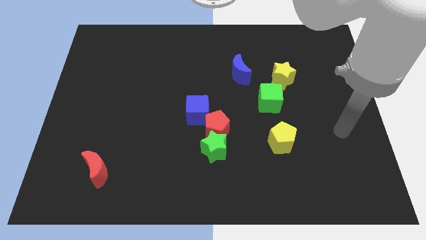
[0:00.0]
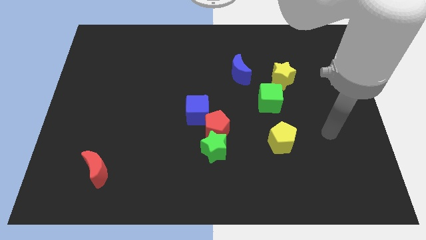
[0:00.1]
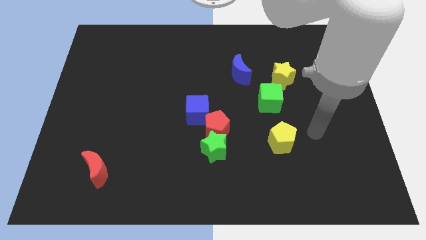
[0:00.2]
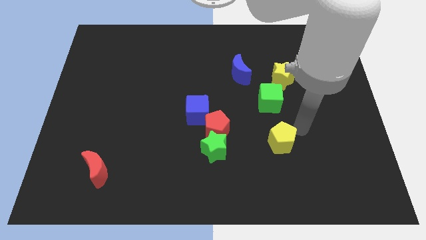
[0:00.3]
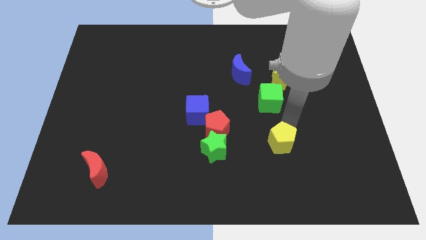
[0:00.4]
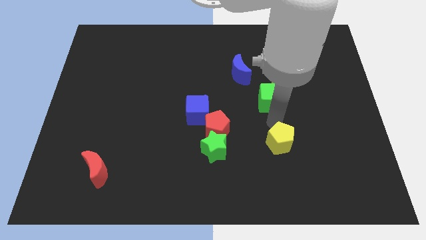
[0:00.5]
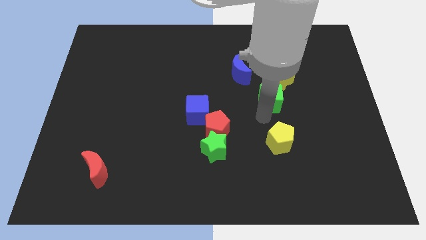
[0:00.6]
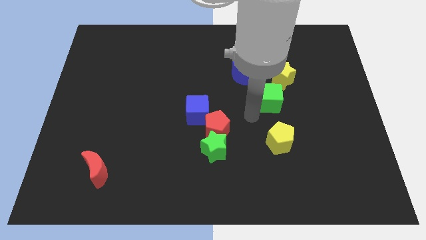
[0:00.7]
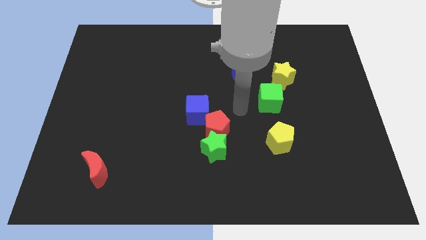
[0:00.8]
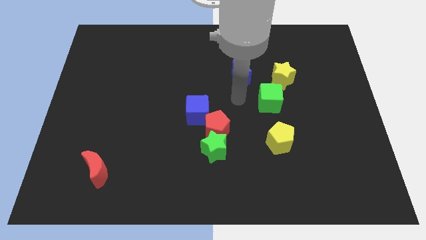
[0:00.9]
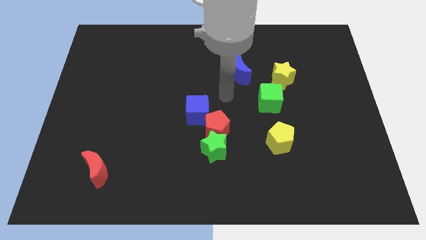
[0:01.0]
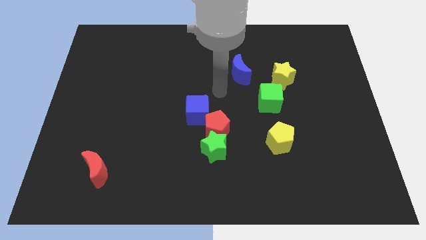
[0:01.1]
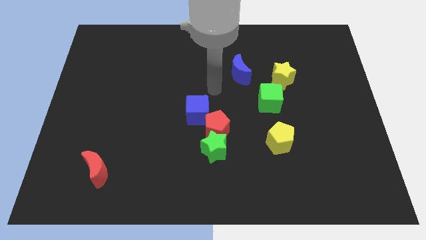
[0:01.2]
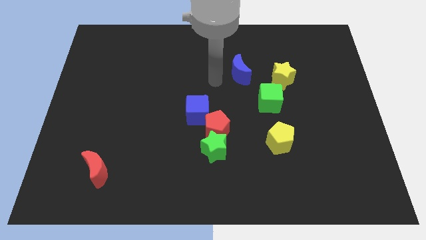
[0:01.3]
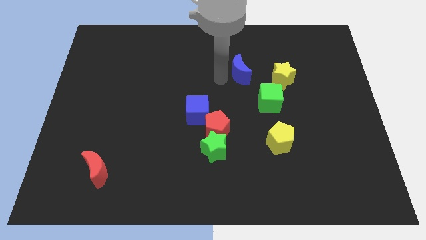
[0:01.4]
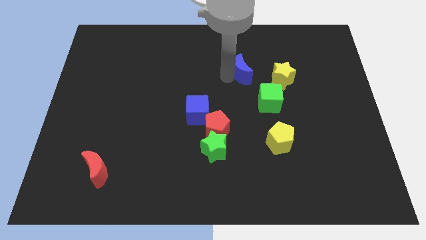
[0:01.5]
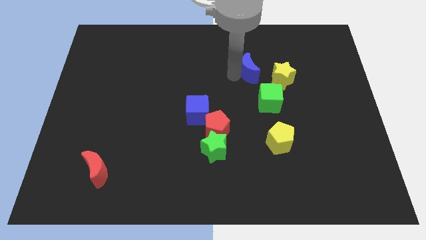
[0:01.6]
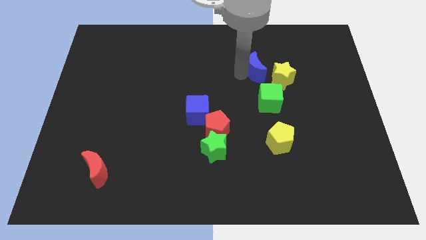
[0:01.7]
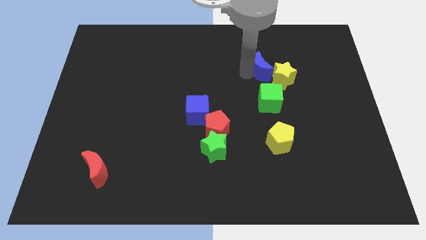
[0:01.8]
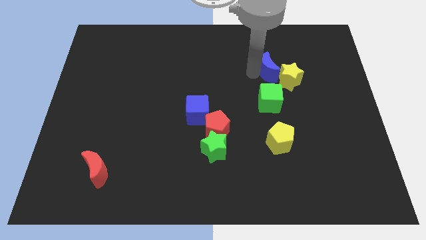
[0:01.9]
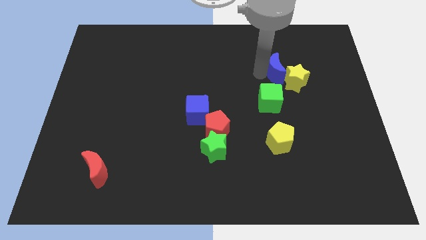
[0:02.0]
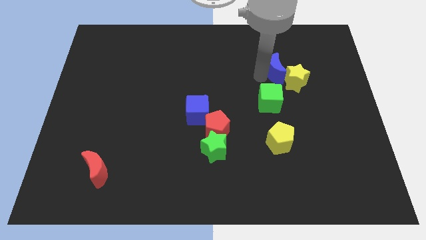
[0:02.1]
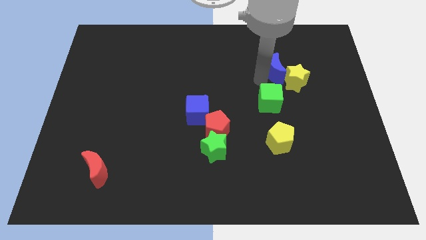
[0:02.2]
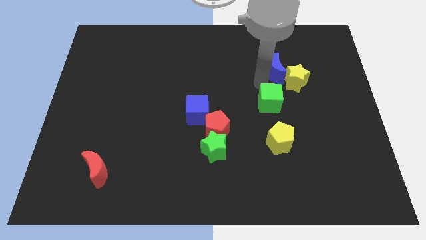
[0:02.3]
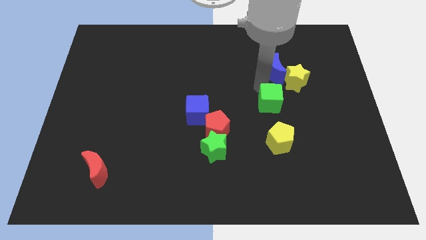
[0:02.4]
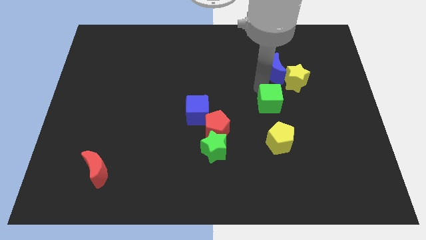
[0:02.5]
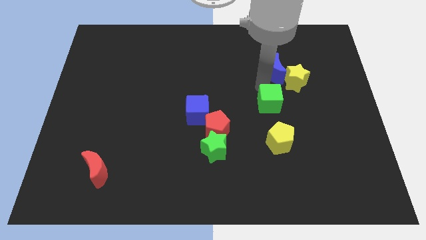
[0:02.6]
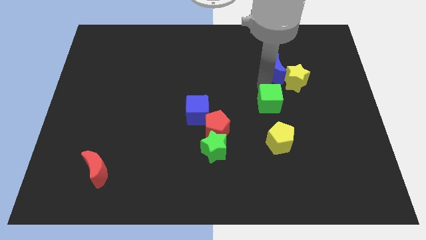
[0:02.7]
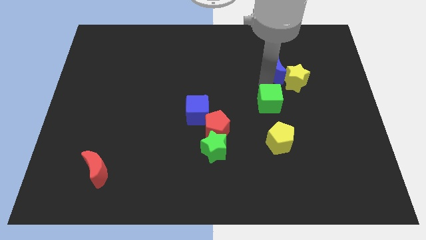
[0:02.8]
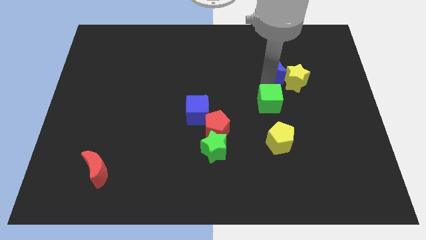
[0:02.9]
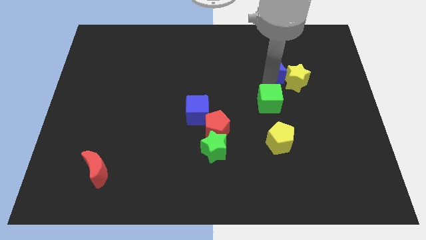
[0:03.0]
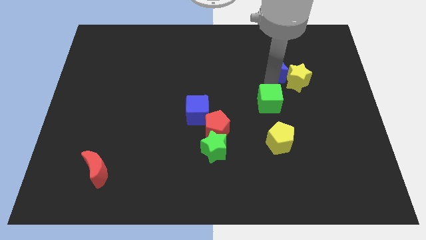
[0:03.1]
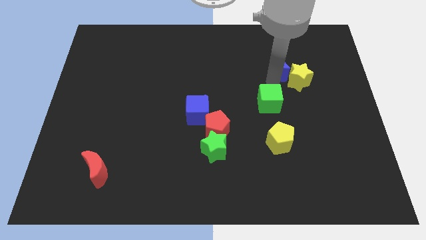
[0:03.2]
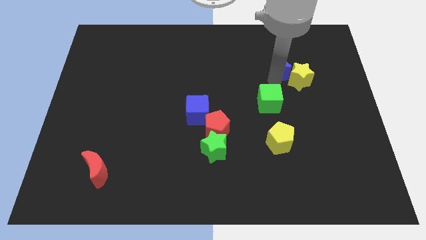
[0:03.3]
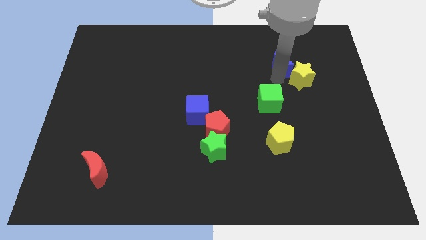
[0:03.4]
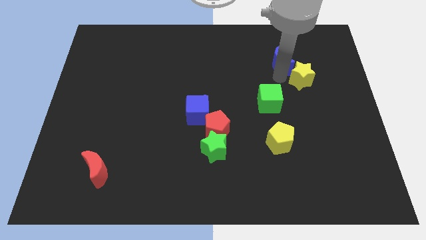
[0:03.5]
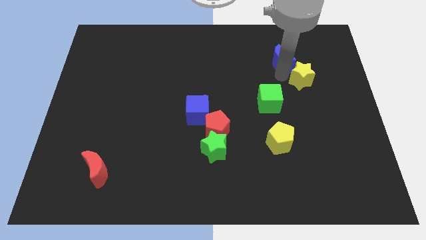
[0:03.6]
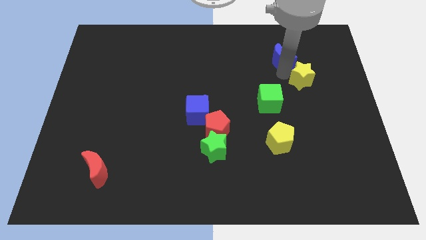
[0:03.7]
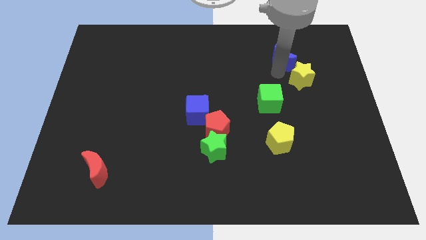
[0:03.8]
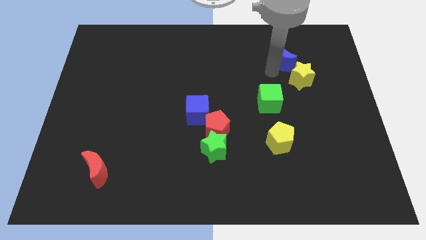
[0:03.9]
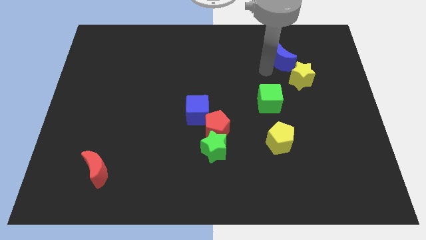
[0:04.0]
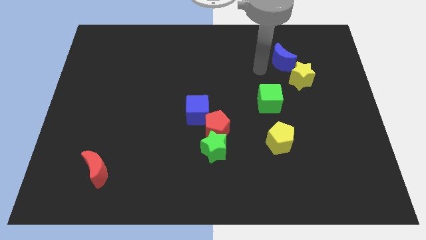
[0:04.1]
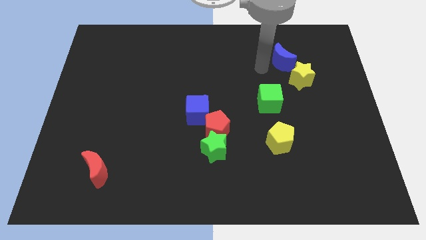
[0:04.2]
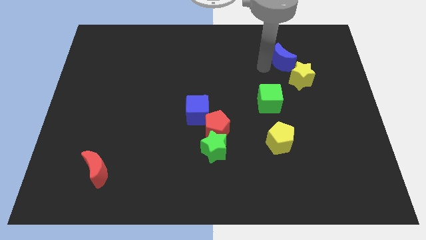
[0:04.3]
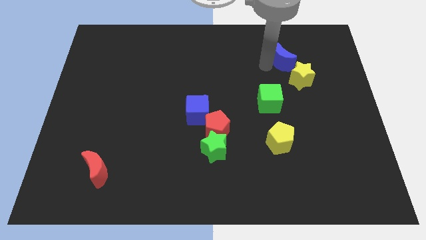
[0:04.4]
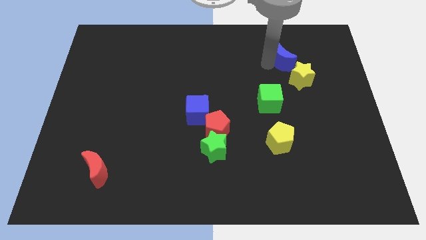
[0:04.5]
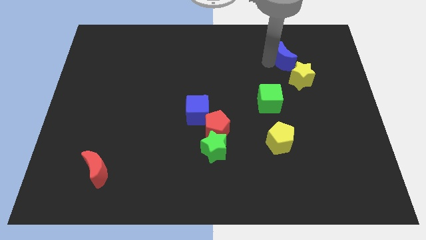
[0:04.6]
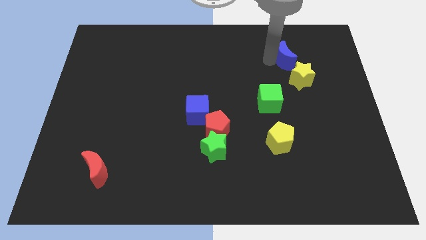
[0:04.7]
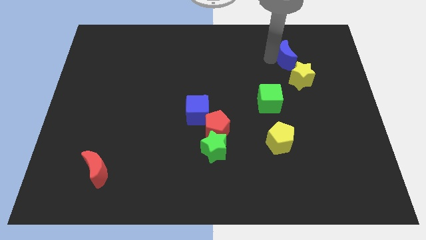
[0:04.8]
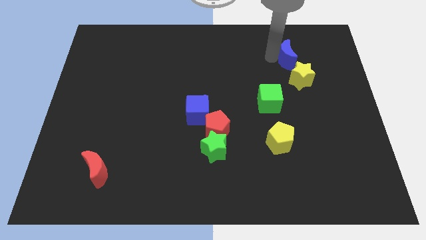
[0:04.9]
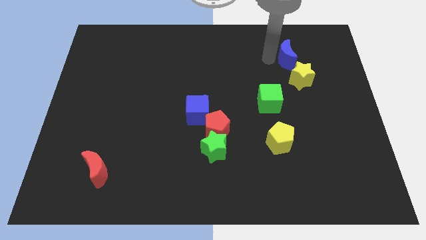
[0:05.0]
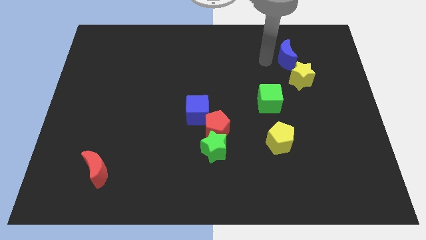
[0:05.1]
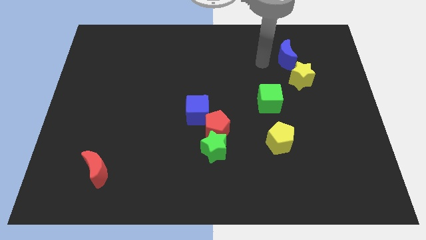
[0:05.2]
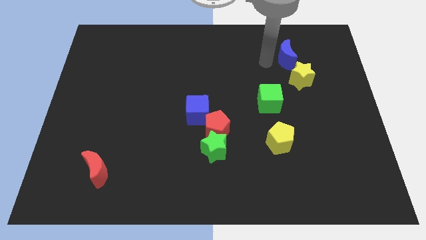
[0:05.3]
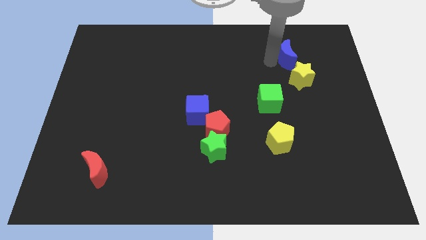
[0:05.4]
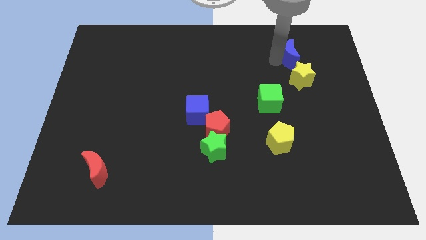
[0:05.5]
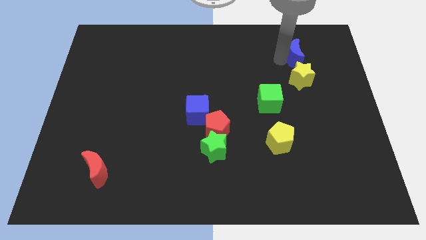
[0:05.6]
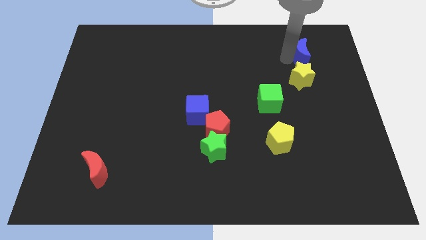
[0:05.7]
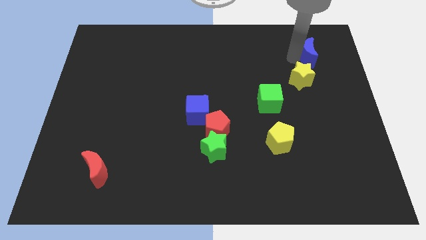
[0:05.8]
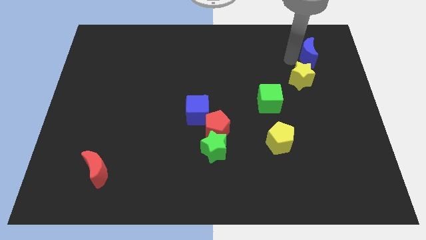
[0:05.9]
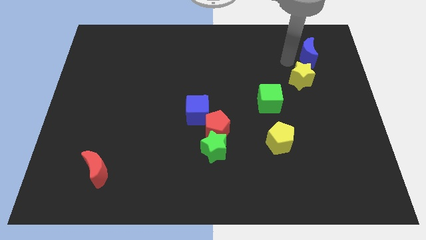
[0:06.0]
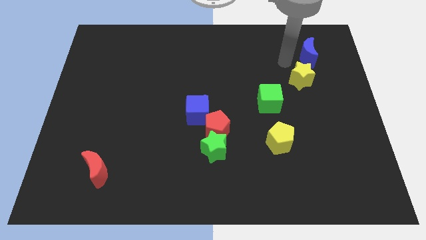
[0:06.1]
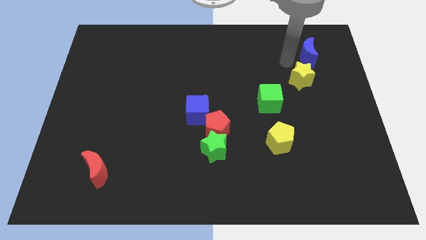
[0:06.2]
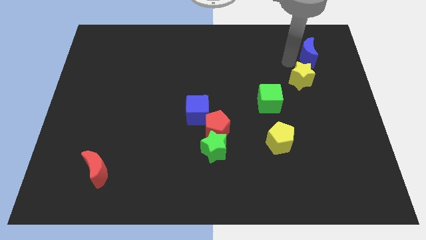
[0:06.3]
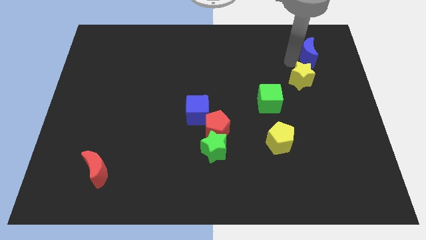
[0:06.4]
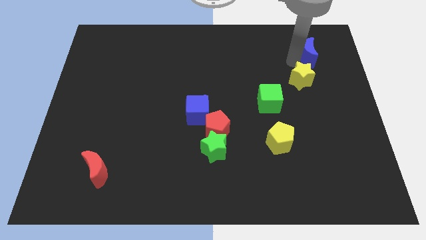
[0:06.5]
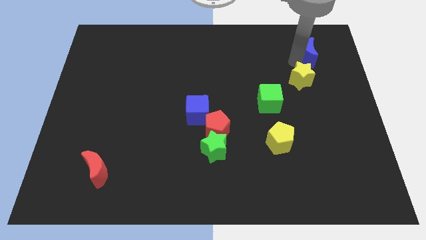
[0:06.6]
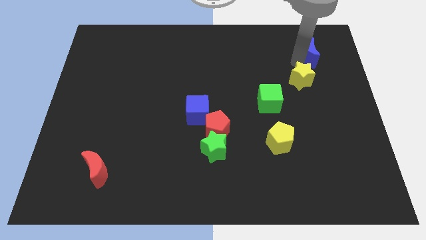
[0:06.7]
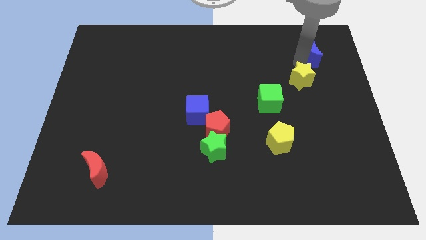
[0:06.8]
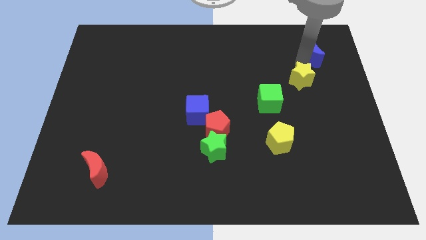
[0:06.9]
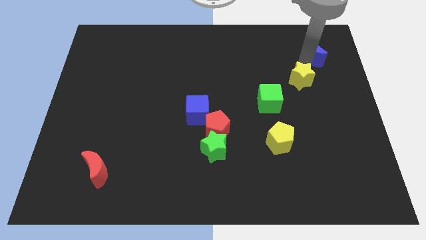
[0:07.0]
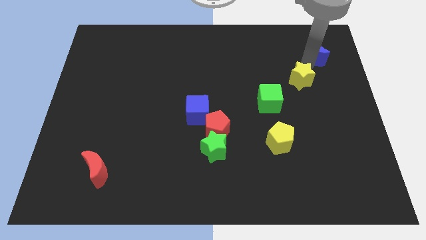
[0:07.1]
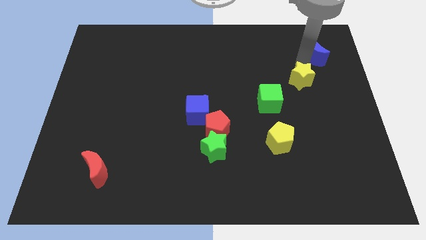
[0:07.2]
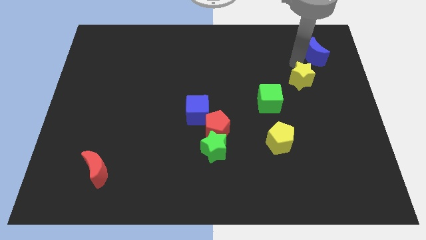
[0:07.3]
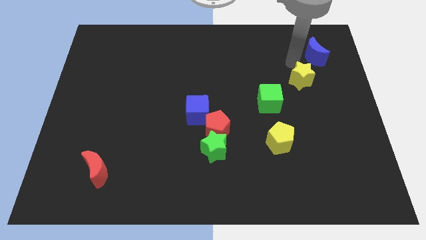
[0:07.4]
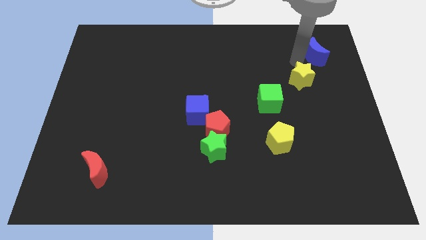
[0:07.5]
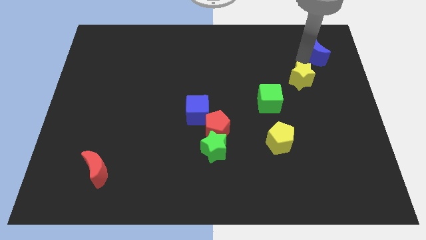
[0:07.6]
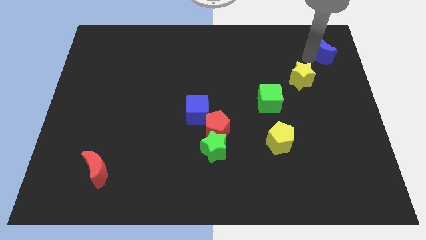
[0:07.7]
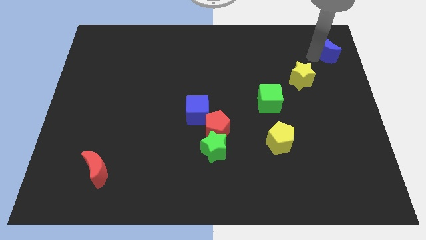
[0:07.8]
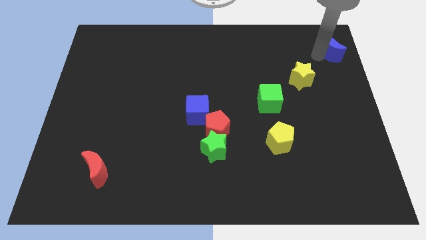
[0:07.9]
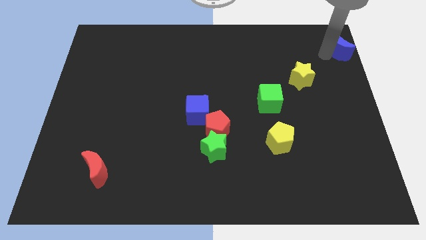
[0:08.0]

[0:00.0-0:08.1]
move the blue moon to the upper right corner
